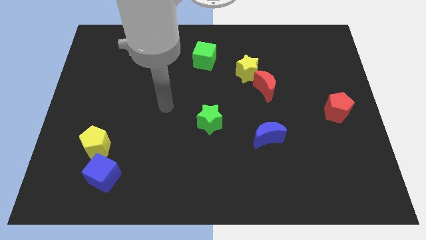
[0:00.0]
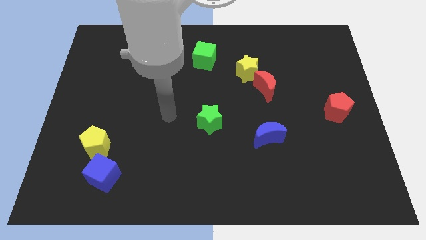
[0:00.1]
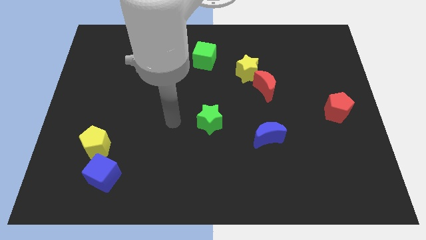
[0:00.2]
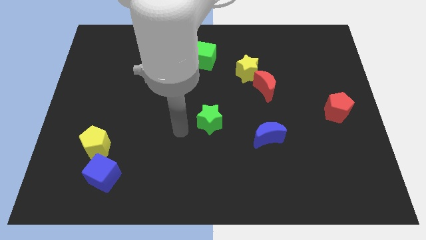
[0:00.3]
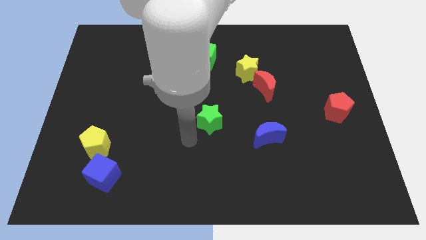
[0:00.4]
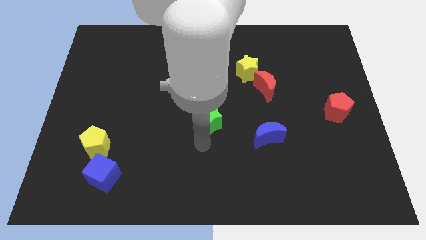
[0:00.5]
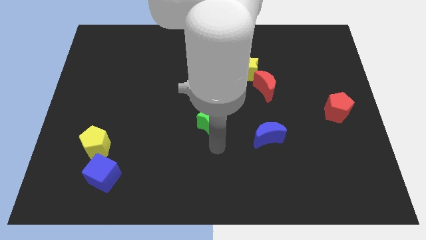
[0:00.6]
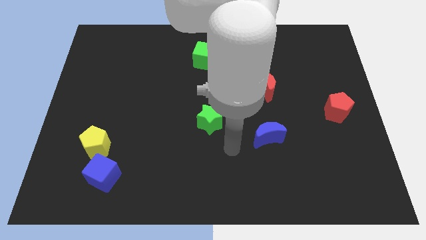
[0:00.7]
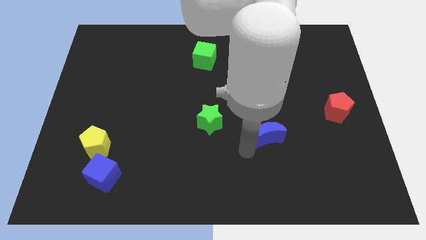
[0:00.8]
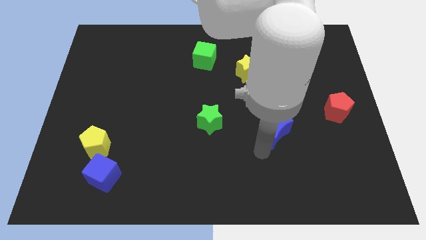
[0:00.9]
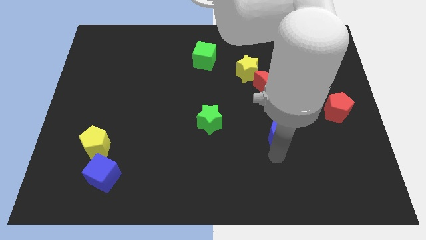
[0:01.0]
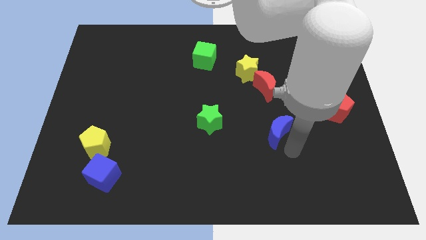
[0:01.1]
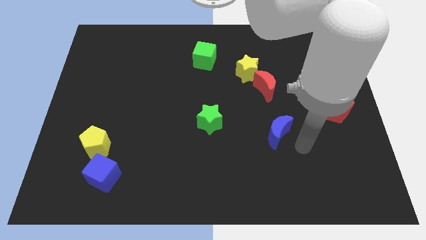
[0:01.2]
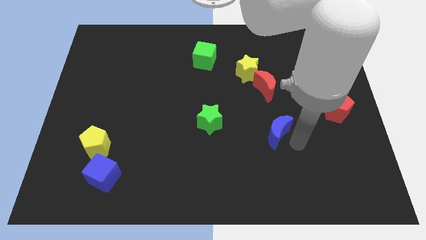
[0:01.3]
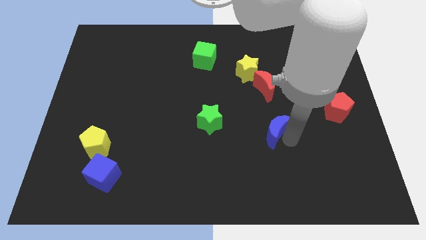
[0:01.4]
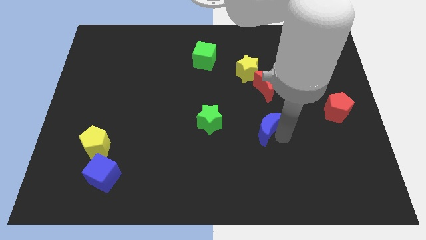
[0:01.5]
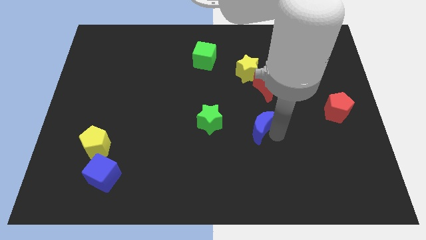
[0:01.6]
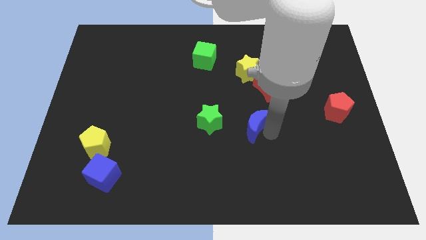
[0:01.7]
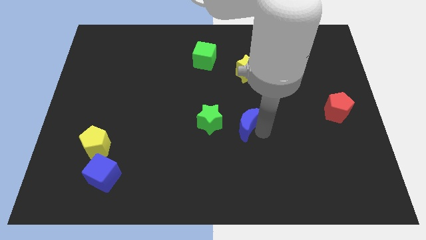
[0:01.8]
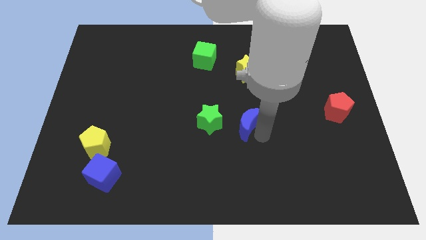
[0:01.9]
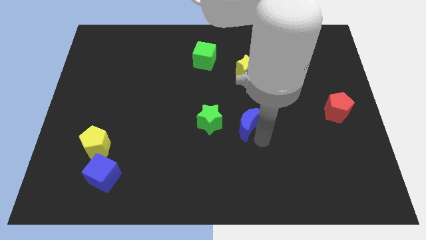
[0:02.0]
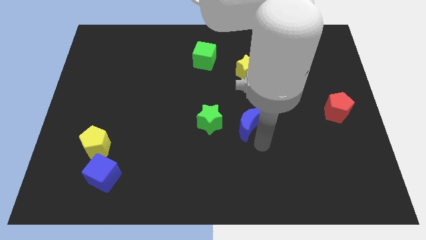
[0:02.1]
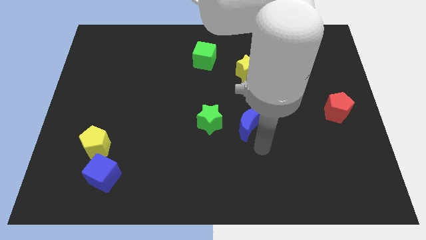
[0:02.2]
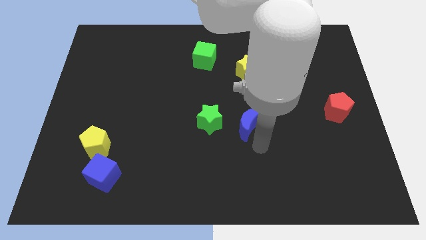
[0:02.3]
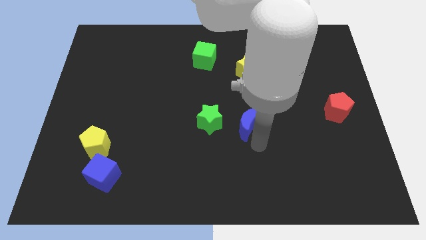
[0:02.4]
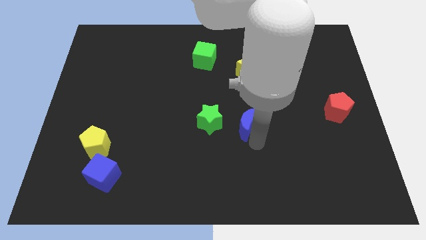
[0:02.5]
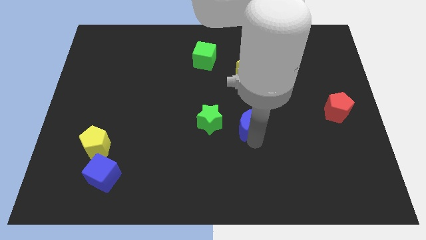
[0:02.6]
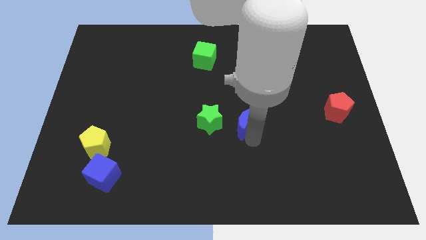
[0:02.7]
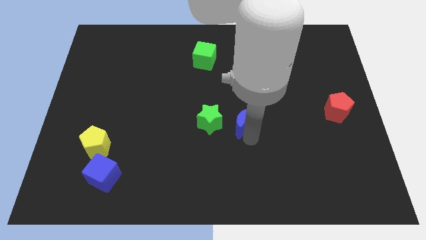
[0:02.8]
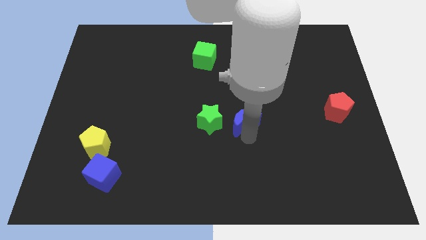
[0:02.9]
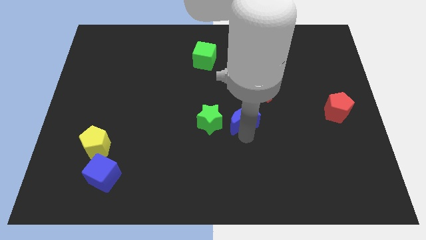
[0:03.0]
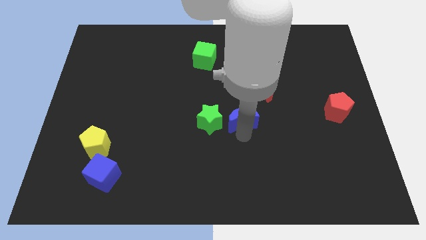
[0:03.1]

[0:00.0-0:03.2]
slightly move the blue moon upwards and left diagonally

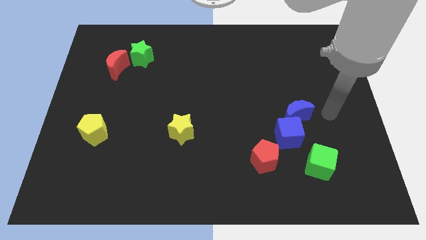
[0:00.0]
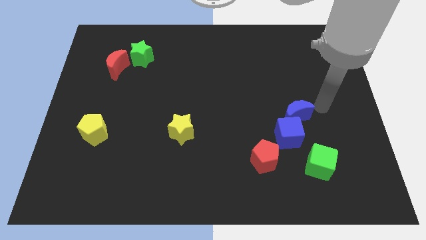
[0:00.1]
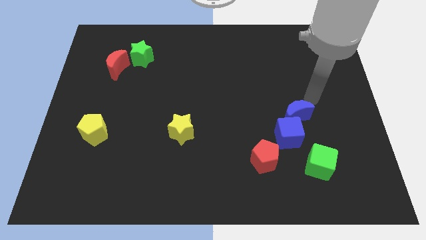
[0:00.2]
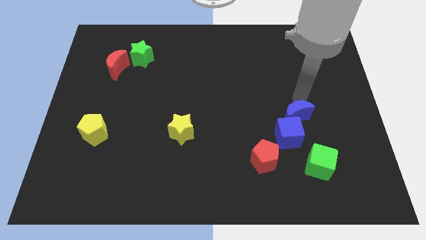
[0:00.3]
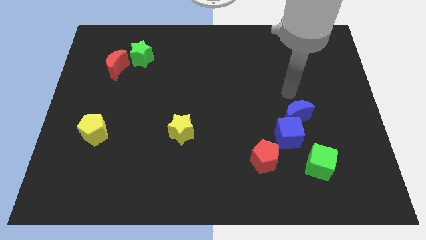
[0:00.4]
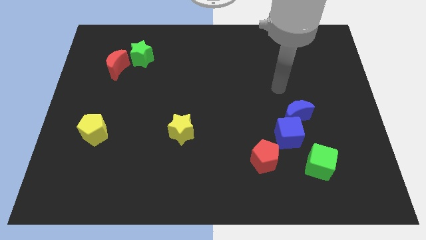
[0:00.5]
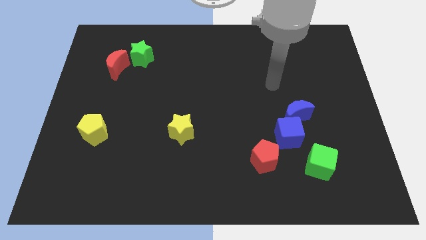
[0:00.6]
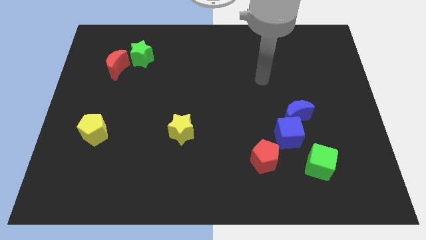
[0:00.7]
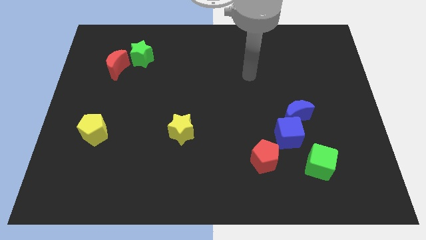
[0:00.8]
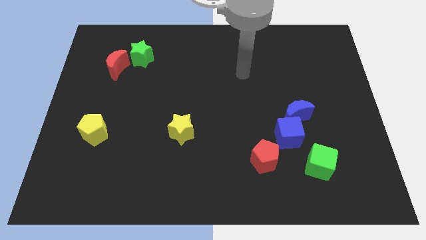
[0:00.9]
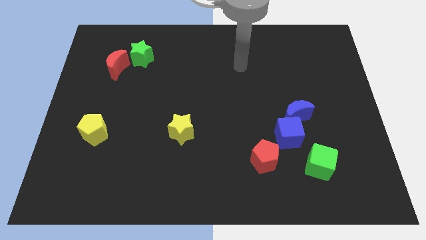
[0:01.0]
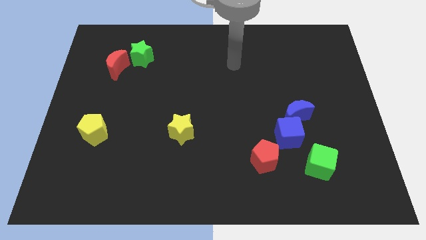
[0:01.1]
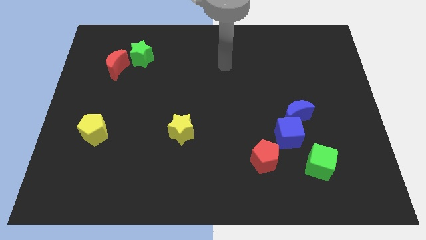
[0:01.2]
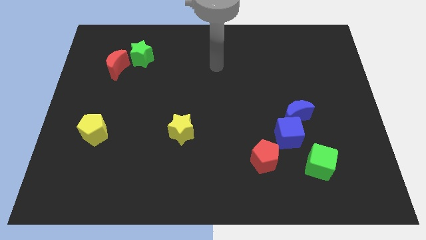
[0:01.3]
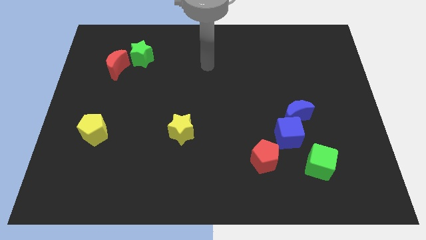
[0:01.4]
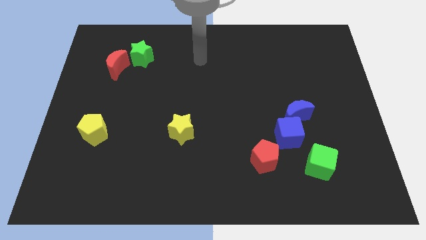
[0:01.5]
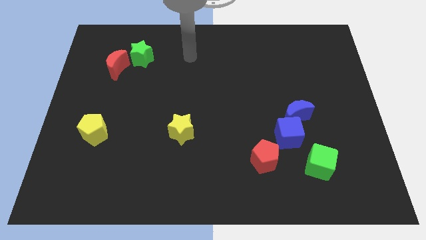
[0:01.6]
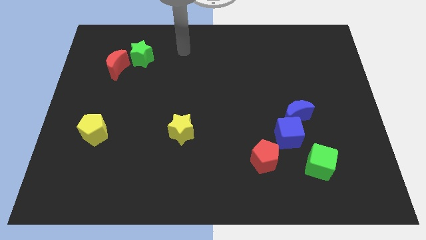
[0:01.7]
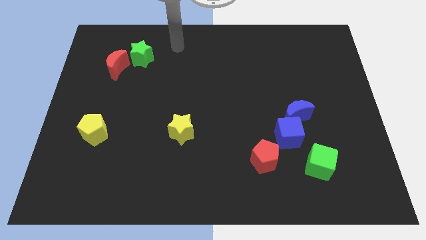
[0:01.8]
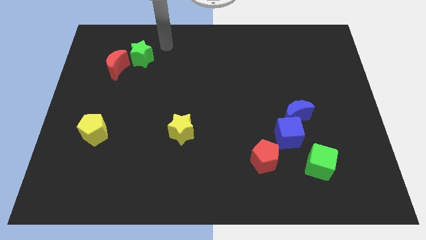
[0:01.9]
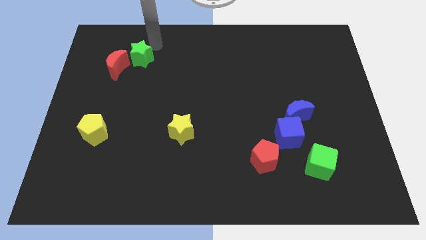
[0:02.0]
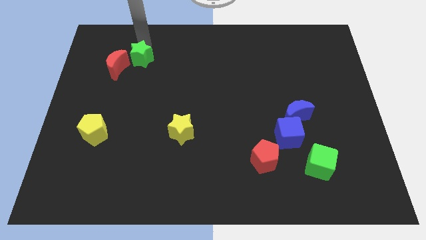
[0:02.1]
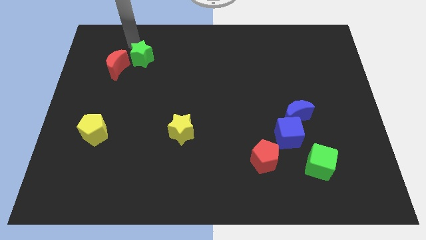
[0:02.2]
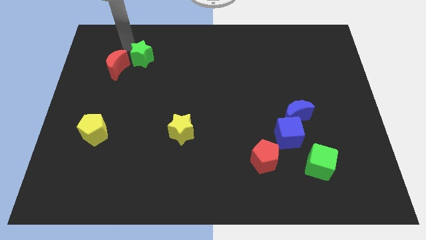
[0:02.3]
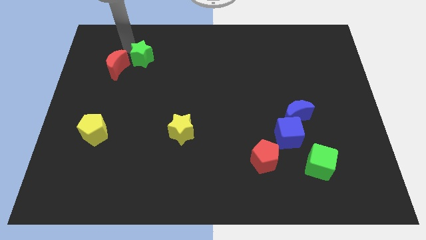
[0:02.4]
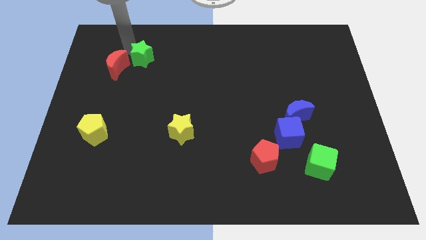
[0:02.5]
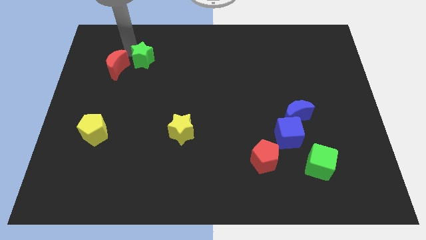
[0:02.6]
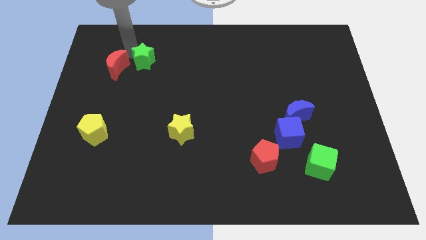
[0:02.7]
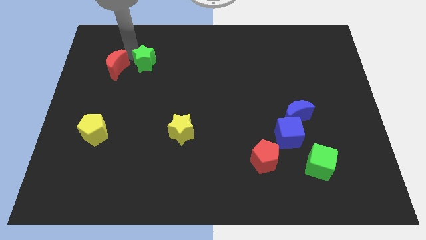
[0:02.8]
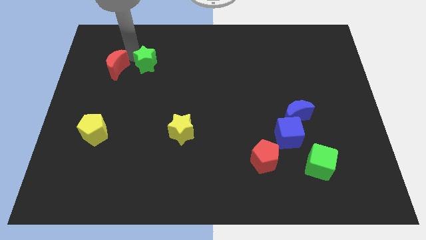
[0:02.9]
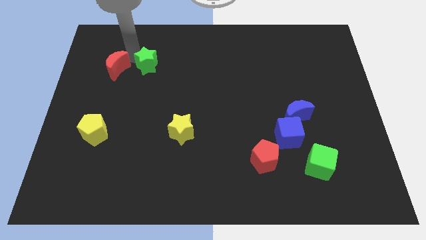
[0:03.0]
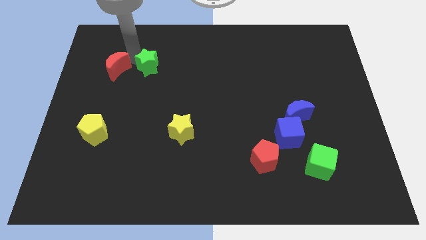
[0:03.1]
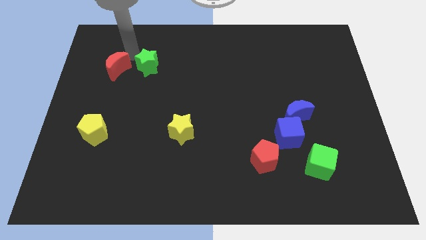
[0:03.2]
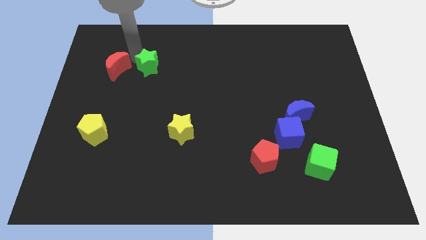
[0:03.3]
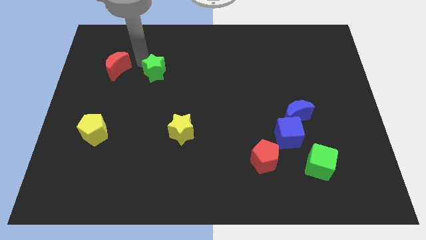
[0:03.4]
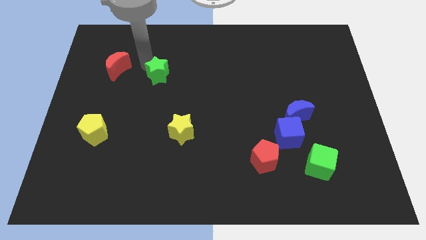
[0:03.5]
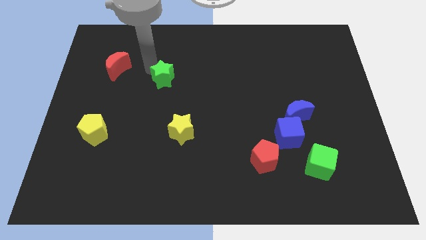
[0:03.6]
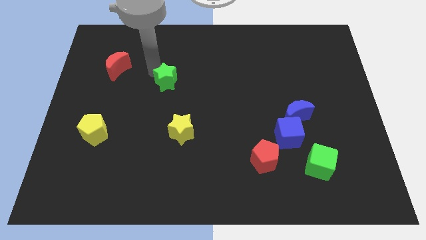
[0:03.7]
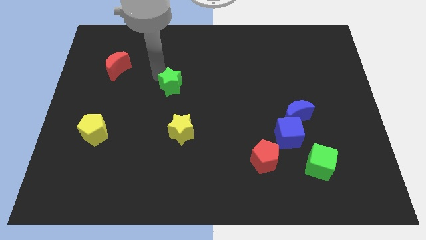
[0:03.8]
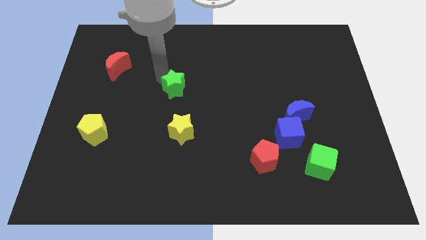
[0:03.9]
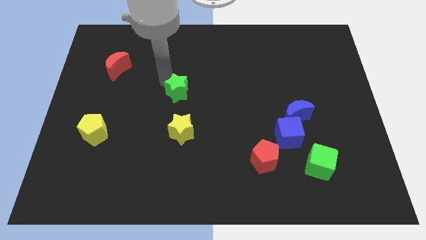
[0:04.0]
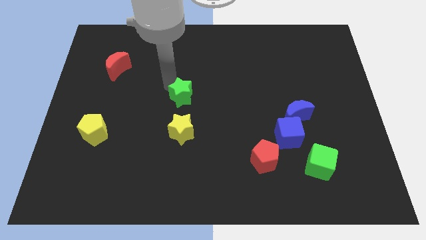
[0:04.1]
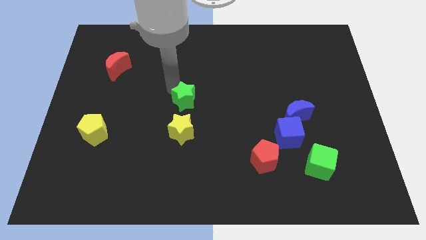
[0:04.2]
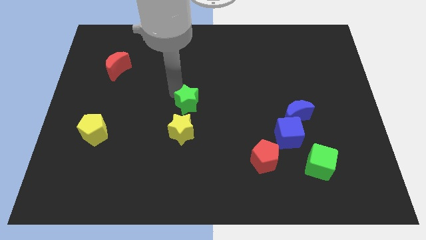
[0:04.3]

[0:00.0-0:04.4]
move the green star down and then right

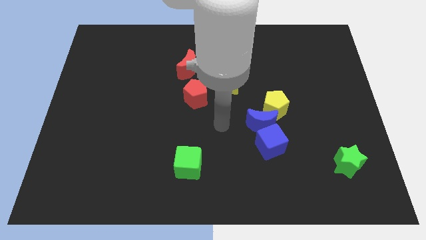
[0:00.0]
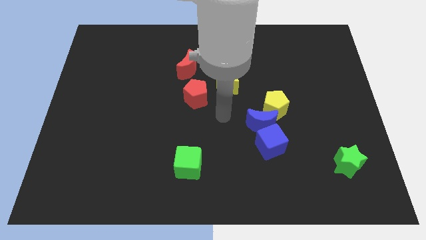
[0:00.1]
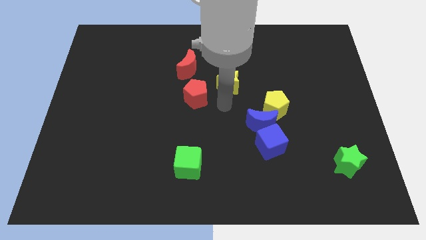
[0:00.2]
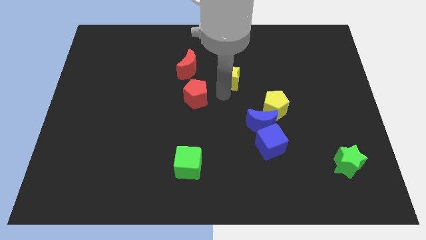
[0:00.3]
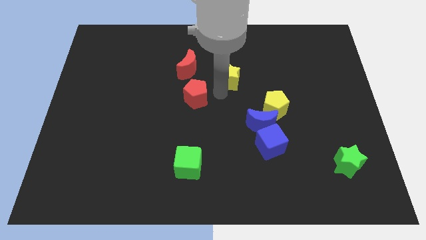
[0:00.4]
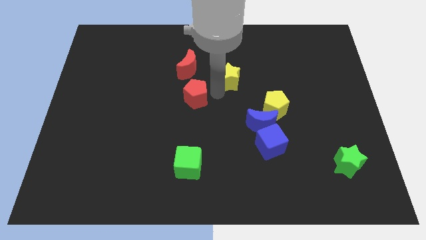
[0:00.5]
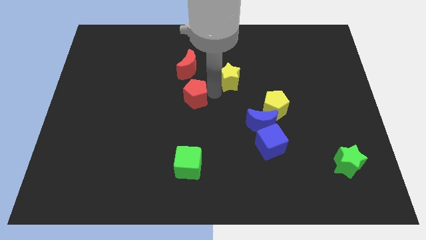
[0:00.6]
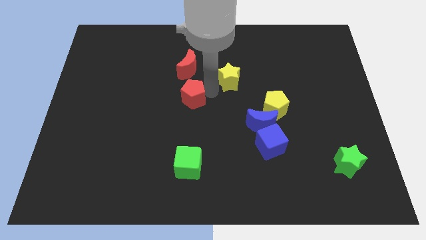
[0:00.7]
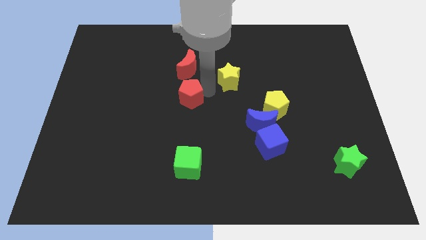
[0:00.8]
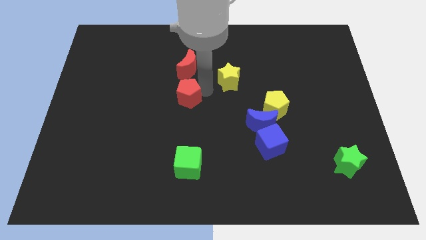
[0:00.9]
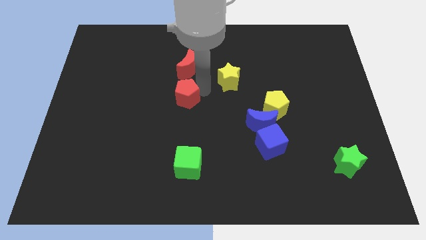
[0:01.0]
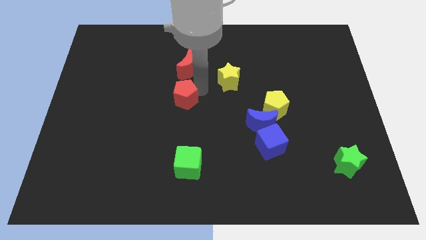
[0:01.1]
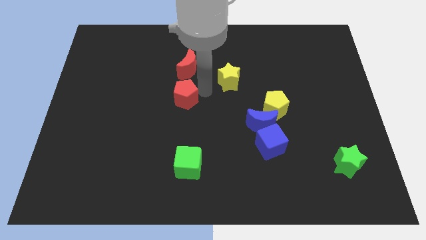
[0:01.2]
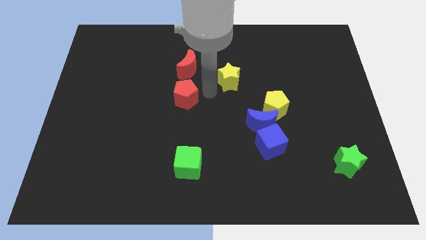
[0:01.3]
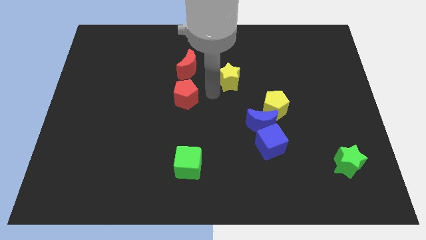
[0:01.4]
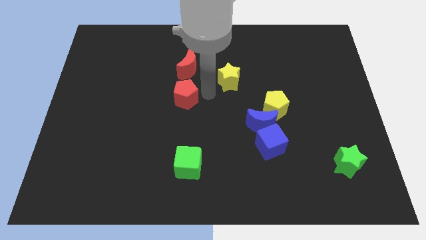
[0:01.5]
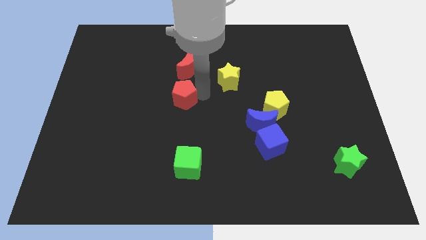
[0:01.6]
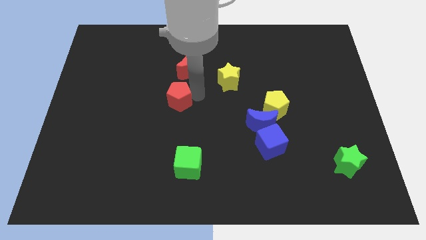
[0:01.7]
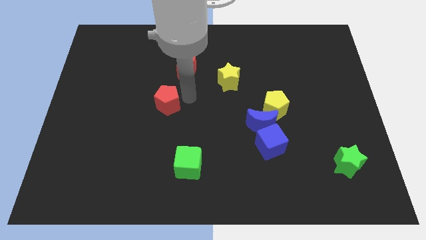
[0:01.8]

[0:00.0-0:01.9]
slide the red pentagon to the left a little bit
